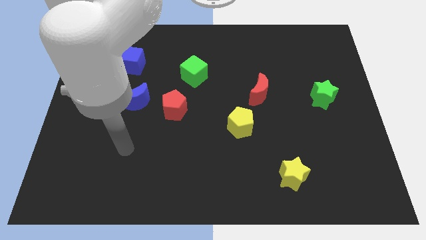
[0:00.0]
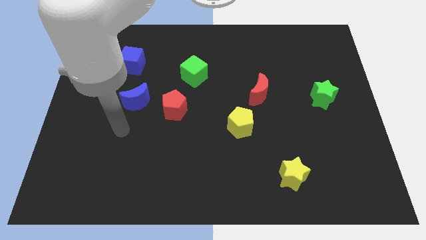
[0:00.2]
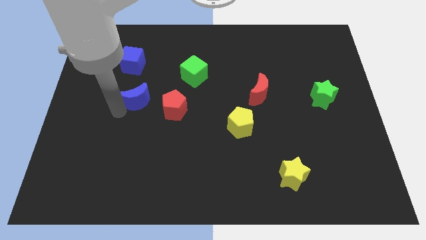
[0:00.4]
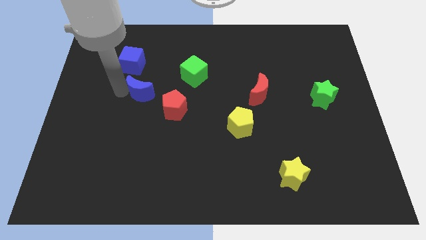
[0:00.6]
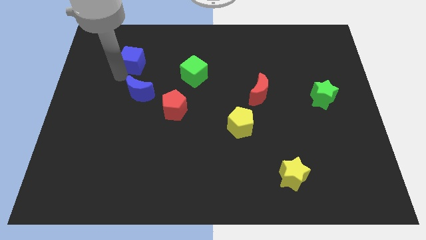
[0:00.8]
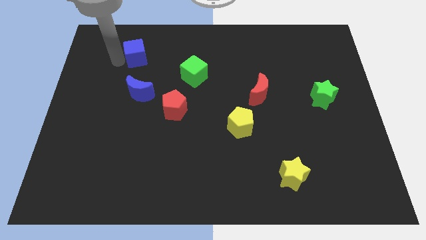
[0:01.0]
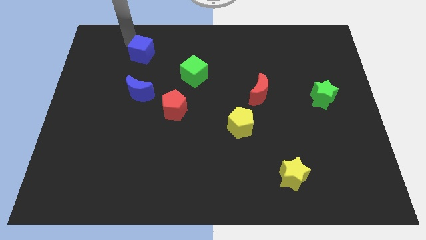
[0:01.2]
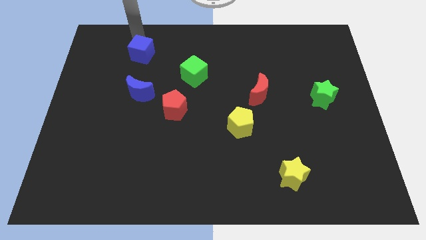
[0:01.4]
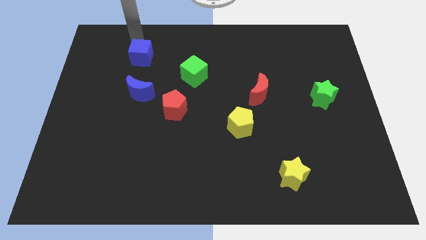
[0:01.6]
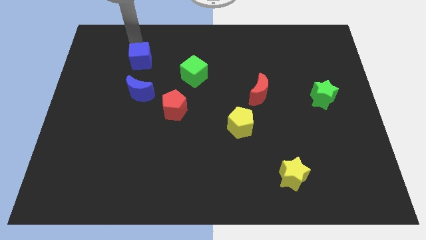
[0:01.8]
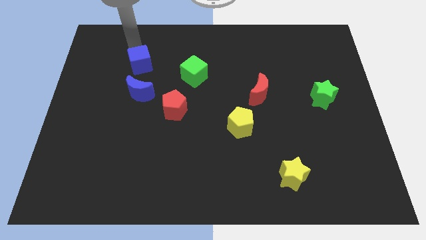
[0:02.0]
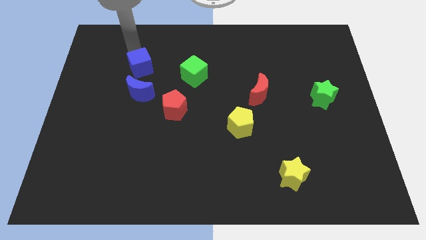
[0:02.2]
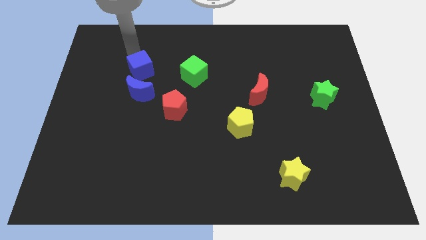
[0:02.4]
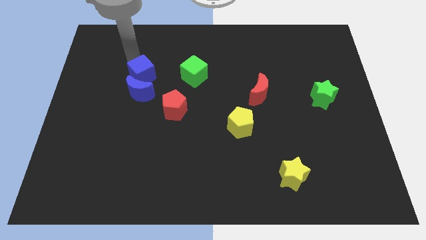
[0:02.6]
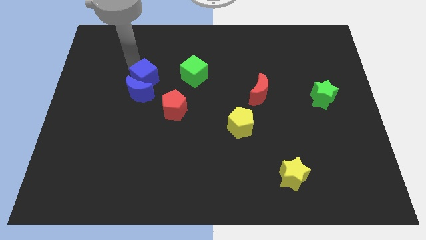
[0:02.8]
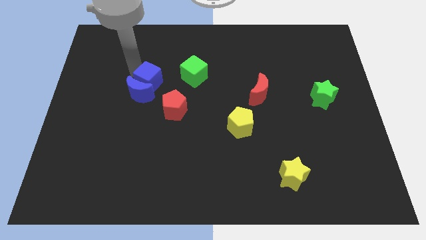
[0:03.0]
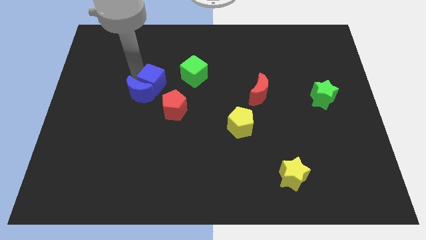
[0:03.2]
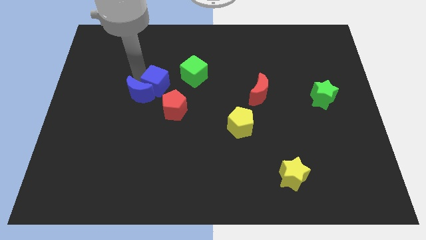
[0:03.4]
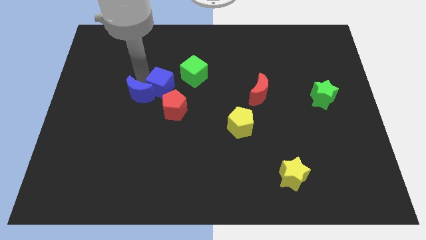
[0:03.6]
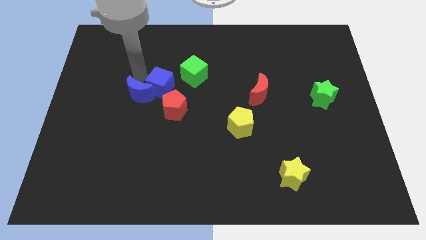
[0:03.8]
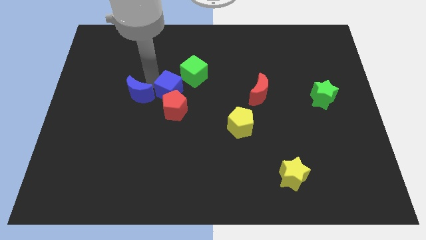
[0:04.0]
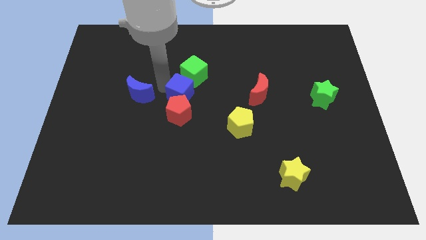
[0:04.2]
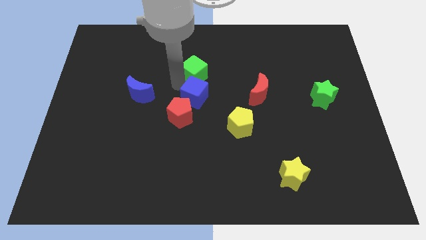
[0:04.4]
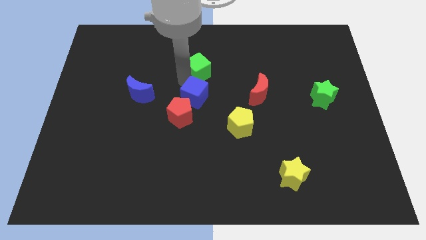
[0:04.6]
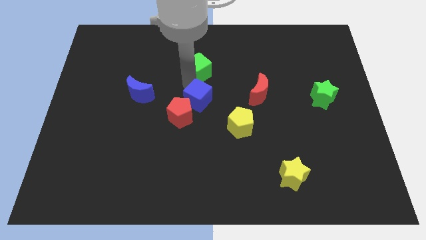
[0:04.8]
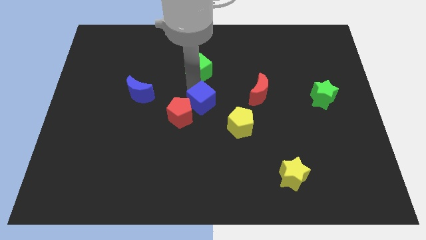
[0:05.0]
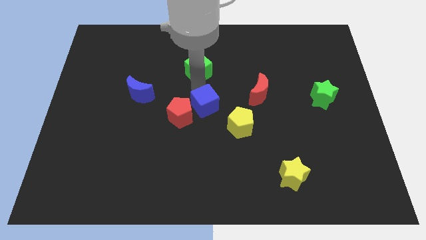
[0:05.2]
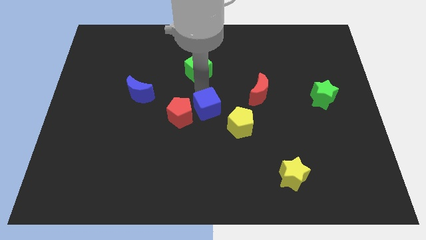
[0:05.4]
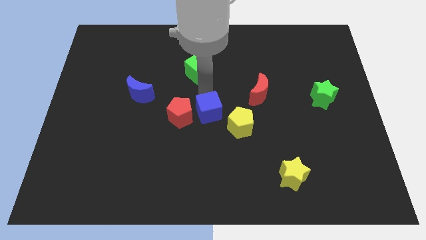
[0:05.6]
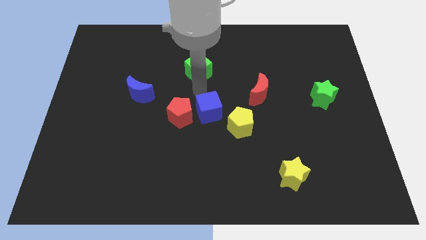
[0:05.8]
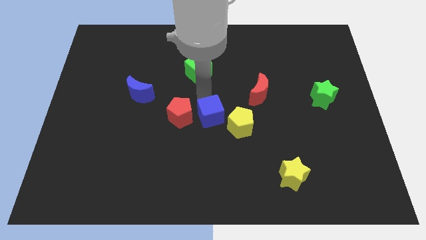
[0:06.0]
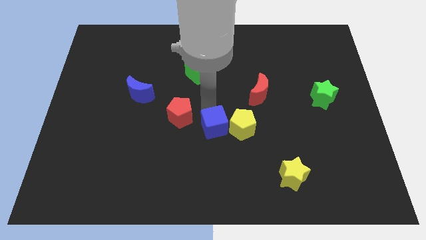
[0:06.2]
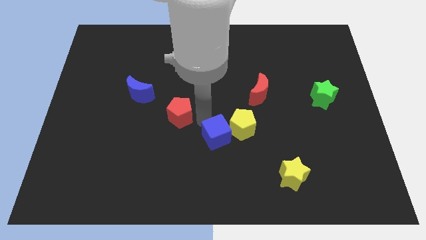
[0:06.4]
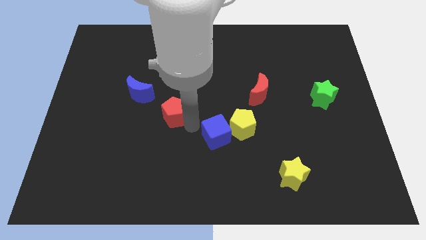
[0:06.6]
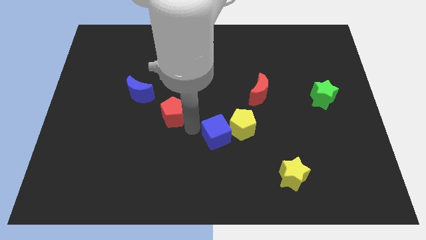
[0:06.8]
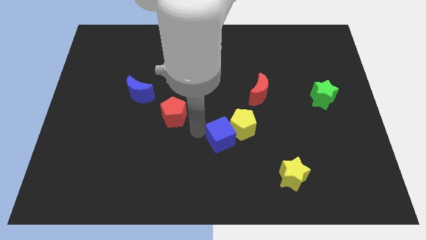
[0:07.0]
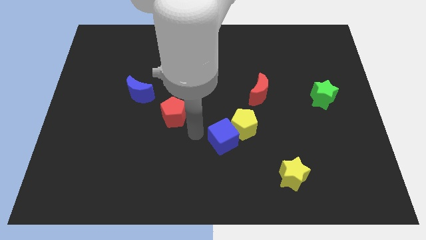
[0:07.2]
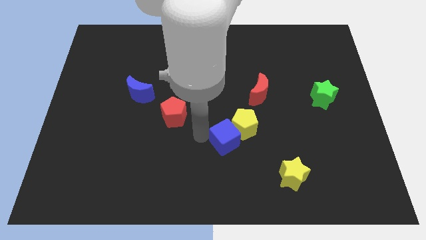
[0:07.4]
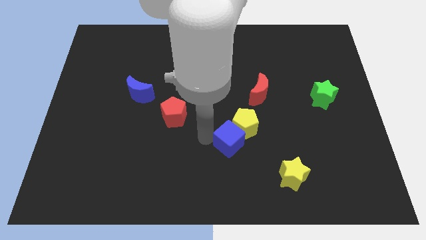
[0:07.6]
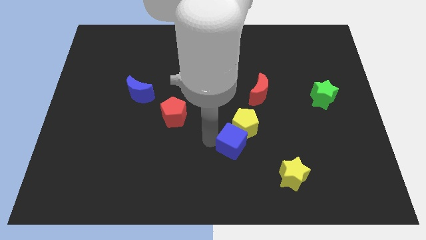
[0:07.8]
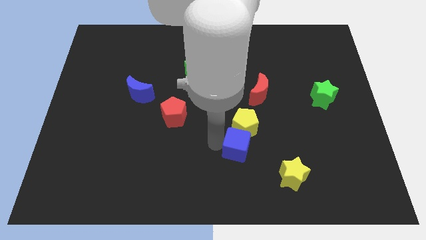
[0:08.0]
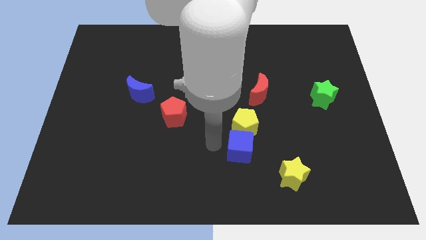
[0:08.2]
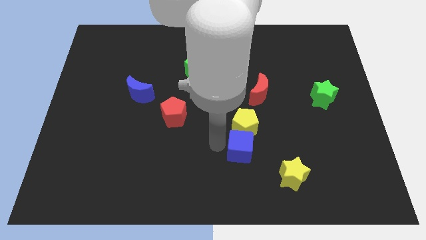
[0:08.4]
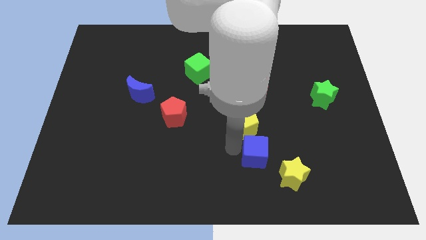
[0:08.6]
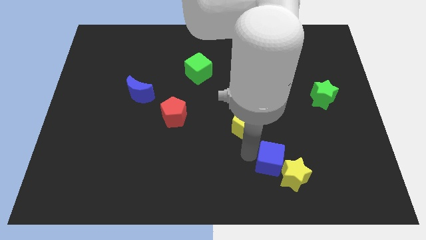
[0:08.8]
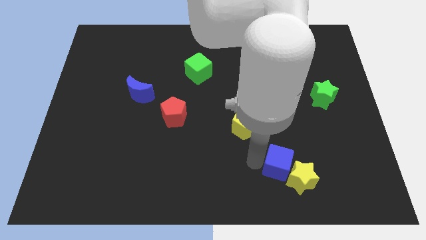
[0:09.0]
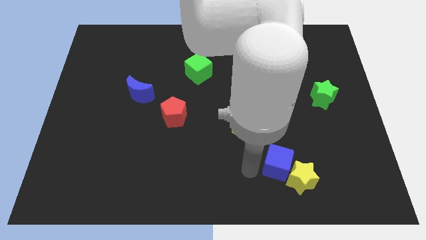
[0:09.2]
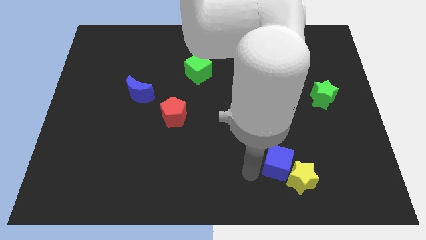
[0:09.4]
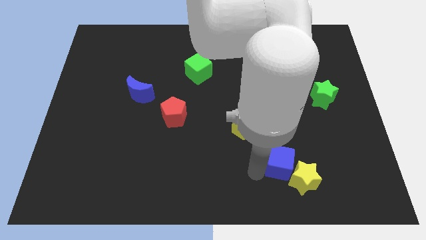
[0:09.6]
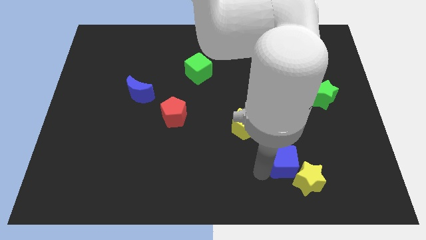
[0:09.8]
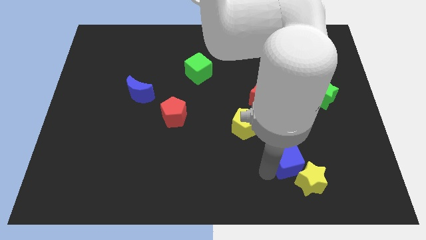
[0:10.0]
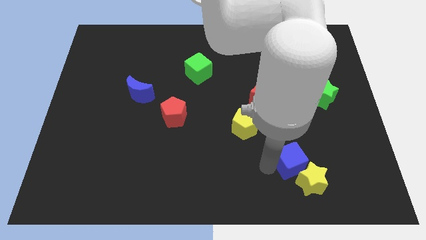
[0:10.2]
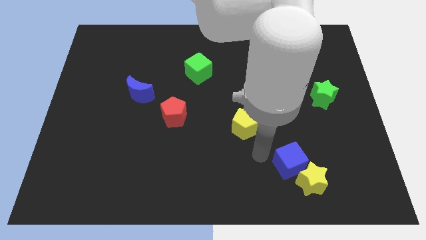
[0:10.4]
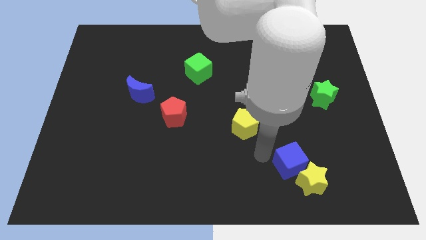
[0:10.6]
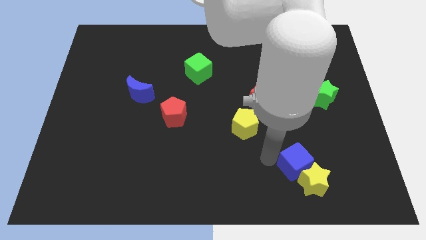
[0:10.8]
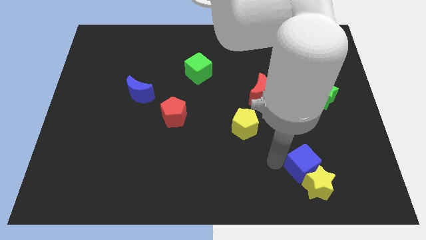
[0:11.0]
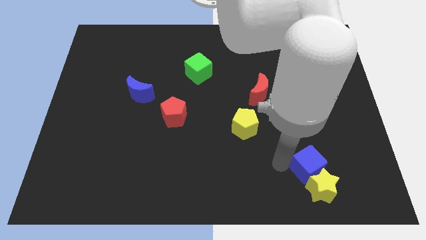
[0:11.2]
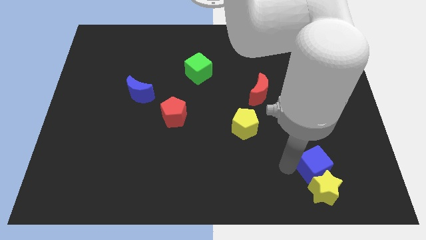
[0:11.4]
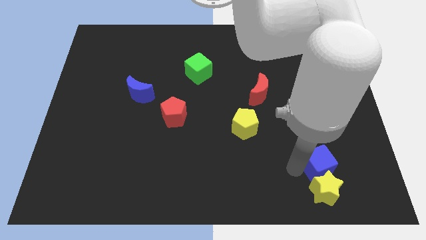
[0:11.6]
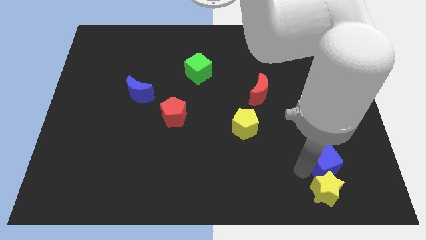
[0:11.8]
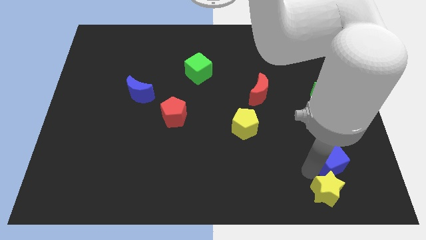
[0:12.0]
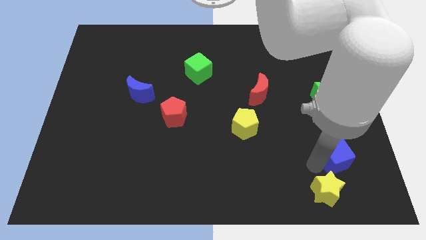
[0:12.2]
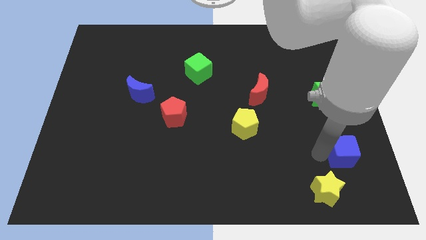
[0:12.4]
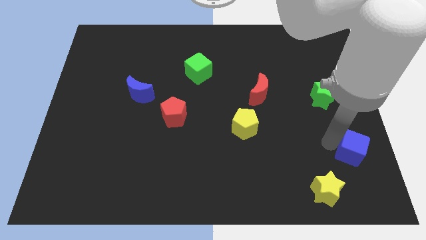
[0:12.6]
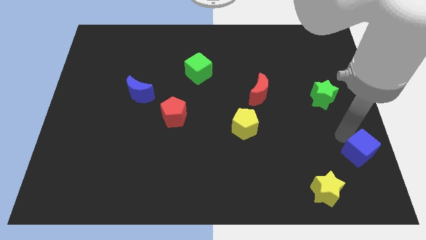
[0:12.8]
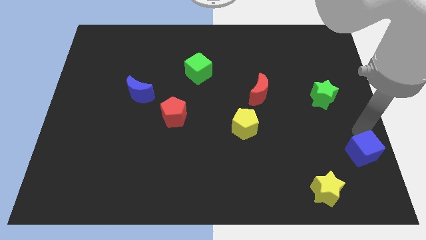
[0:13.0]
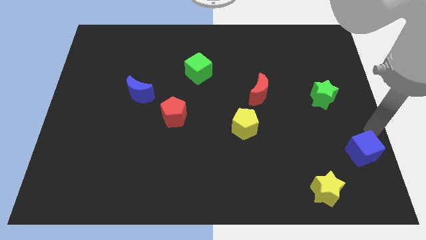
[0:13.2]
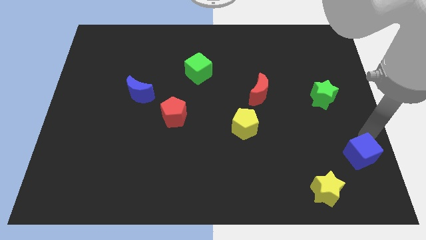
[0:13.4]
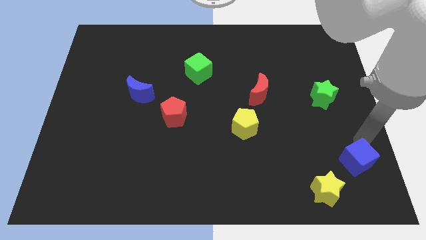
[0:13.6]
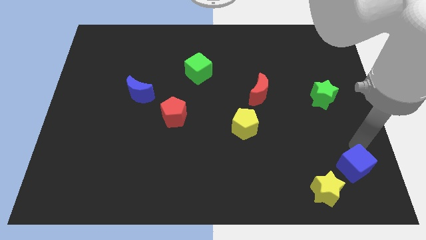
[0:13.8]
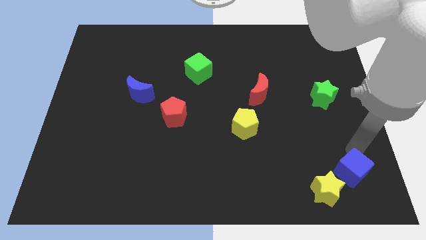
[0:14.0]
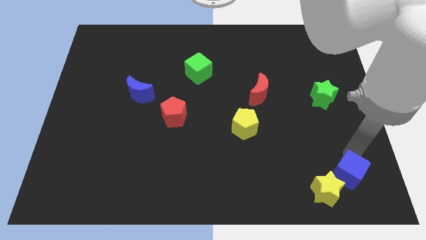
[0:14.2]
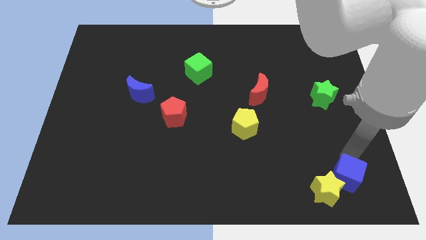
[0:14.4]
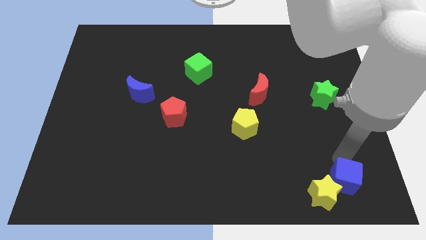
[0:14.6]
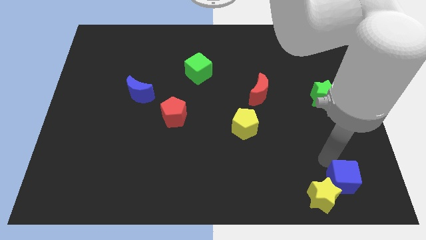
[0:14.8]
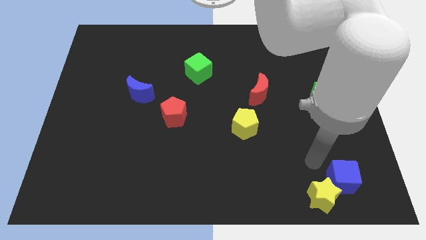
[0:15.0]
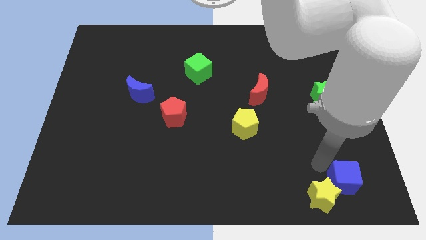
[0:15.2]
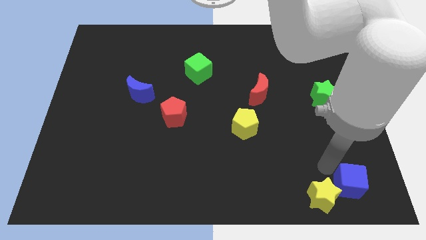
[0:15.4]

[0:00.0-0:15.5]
move the blue cube to the bottom right
